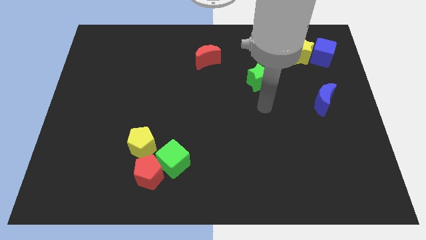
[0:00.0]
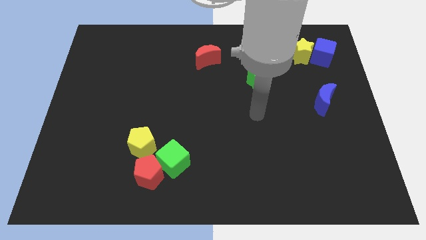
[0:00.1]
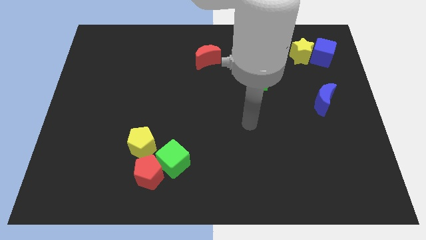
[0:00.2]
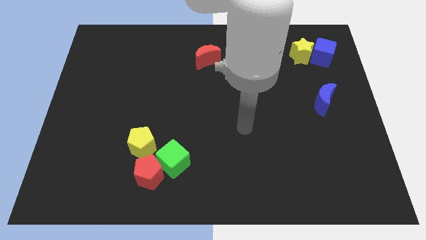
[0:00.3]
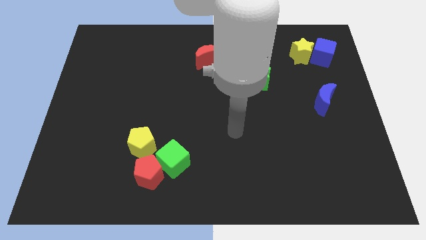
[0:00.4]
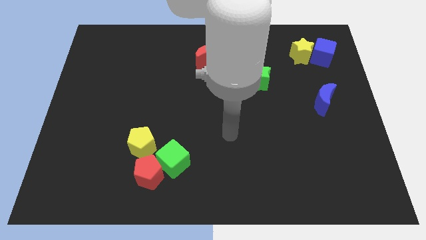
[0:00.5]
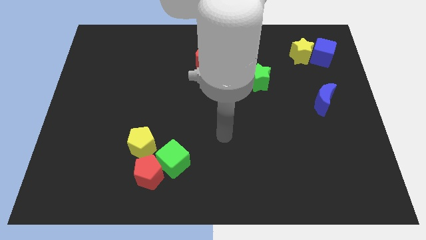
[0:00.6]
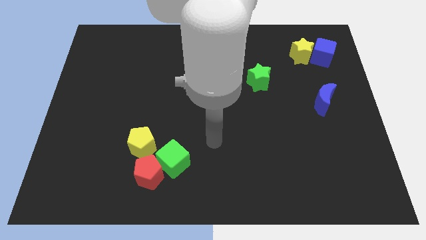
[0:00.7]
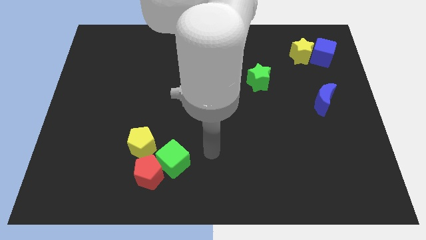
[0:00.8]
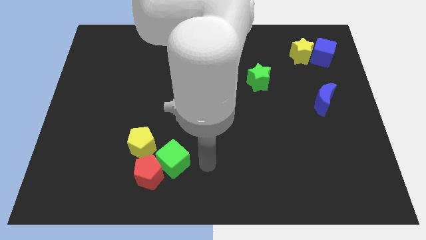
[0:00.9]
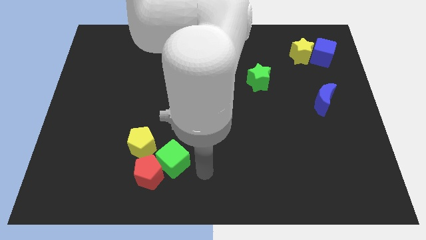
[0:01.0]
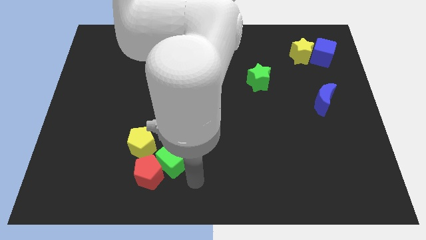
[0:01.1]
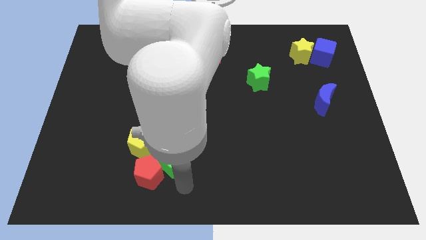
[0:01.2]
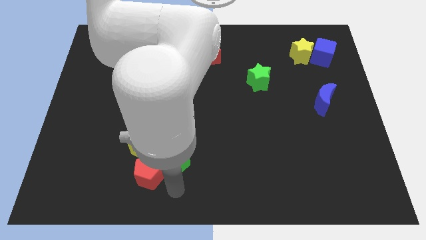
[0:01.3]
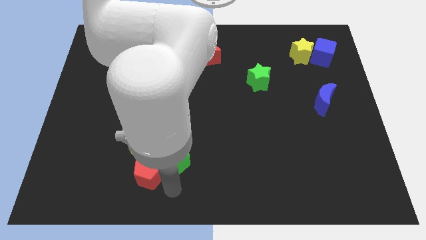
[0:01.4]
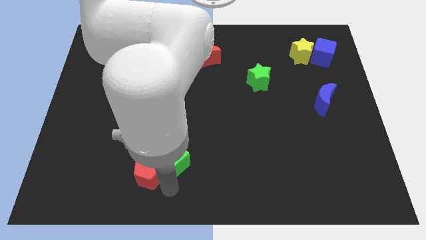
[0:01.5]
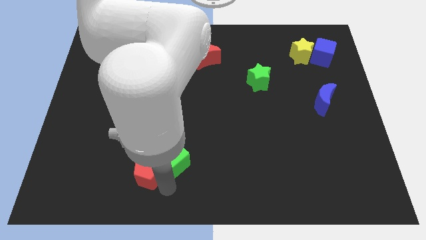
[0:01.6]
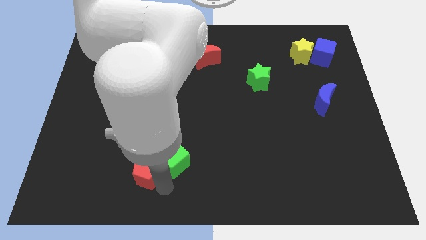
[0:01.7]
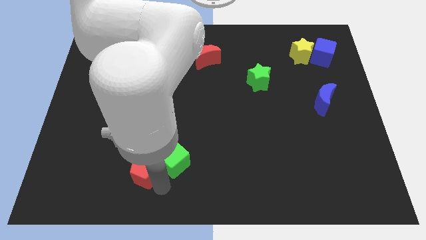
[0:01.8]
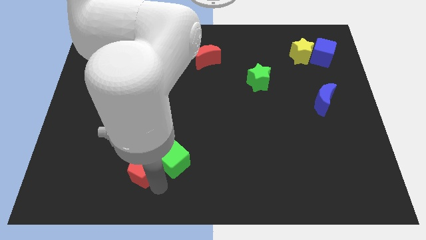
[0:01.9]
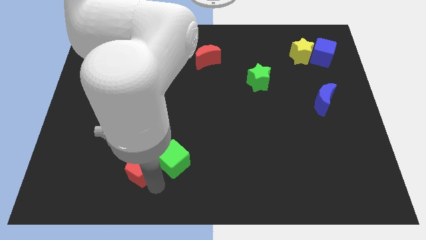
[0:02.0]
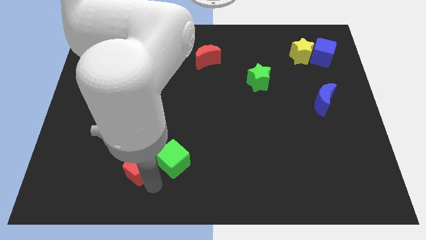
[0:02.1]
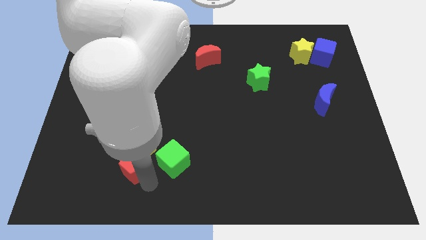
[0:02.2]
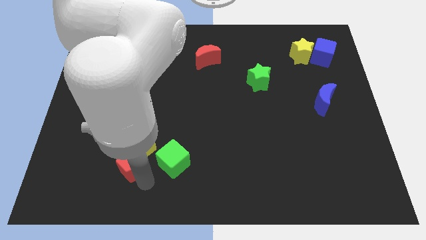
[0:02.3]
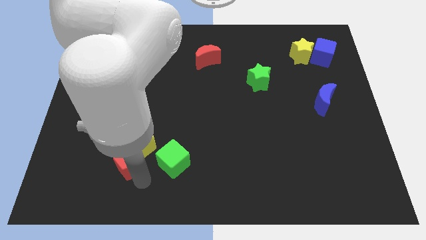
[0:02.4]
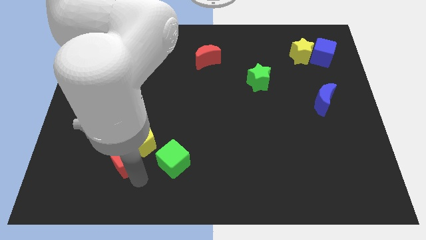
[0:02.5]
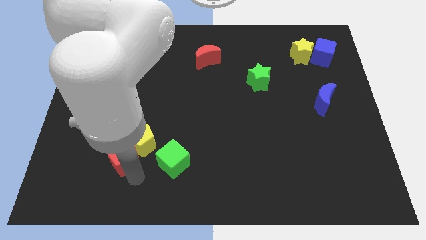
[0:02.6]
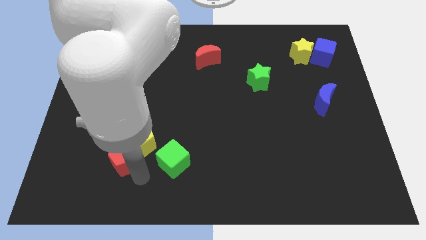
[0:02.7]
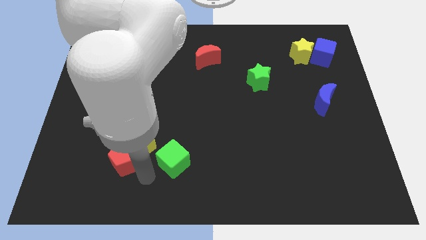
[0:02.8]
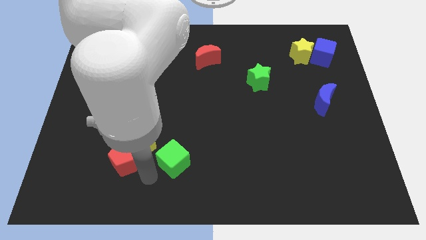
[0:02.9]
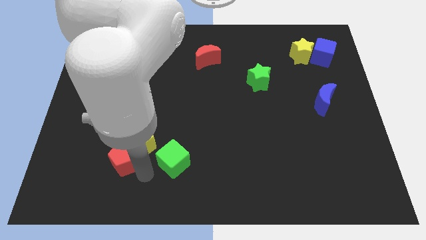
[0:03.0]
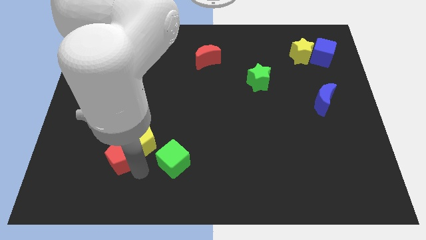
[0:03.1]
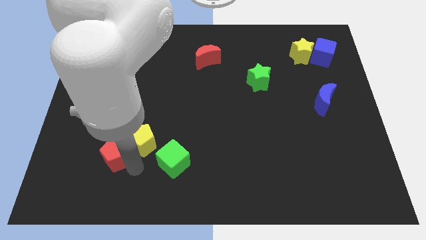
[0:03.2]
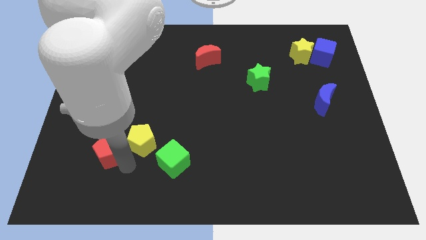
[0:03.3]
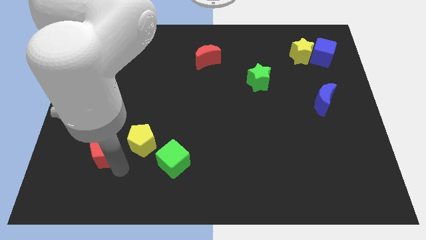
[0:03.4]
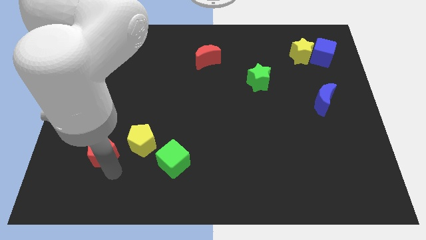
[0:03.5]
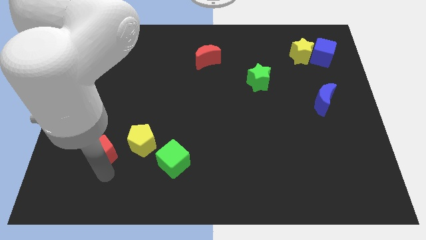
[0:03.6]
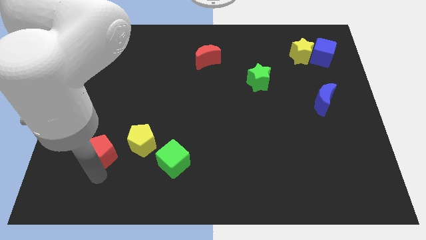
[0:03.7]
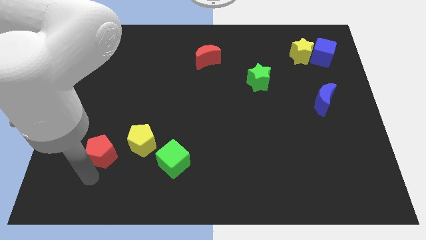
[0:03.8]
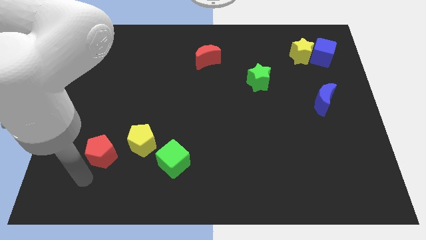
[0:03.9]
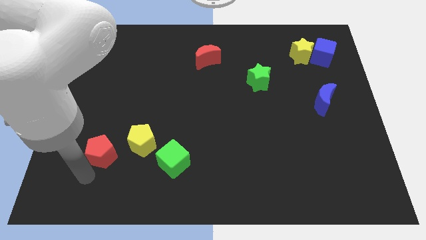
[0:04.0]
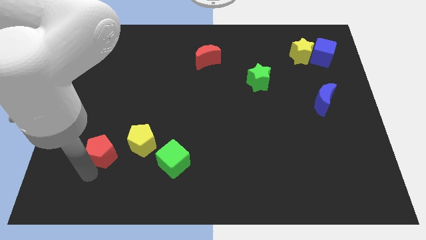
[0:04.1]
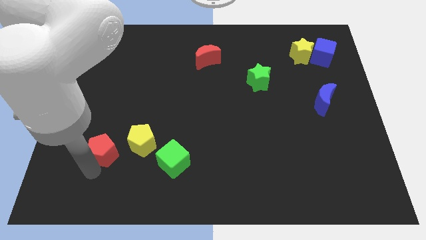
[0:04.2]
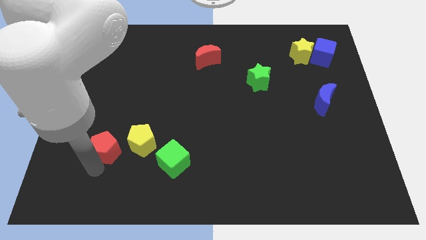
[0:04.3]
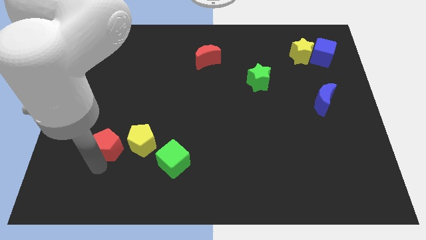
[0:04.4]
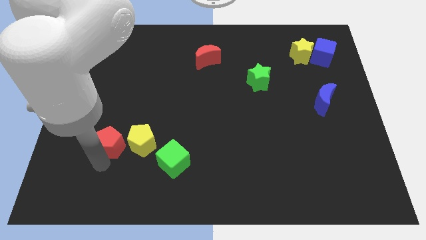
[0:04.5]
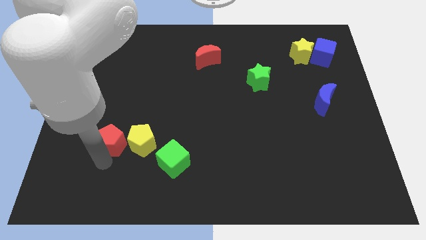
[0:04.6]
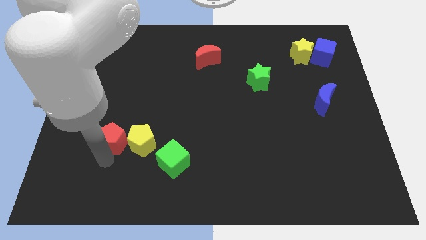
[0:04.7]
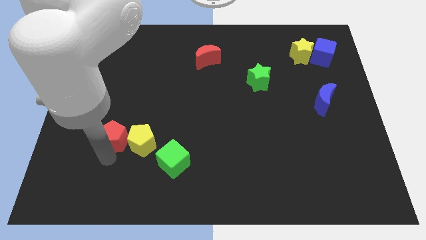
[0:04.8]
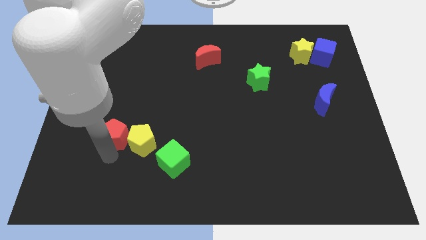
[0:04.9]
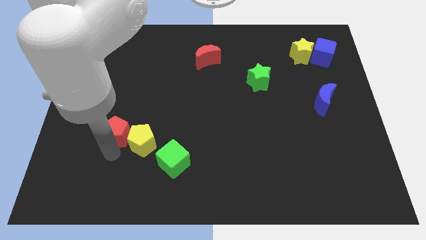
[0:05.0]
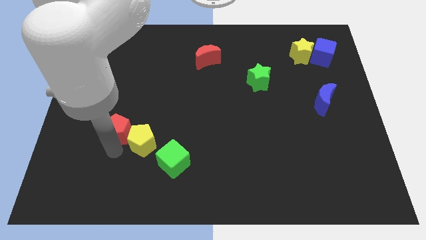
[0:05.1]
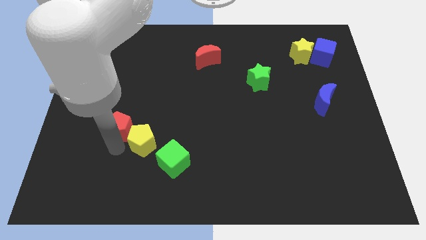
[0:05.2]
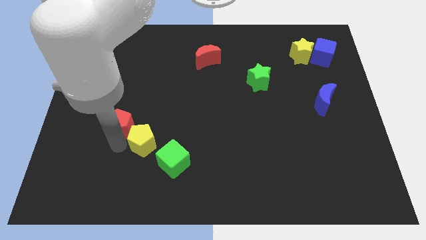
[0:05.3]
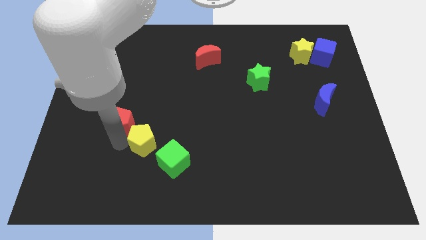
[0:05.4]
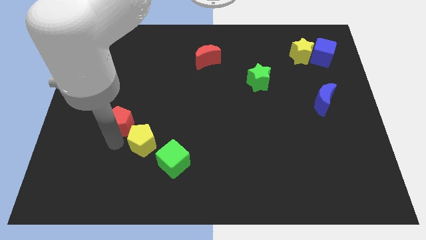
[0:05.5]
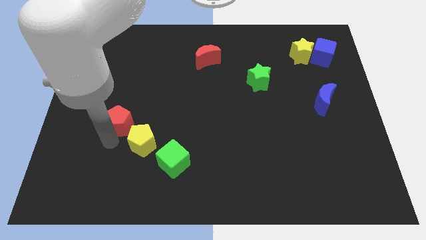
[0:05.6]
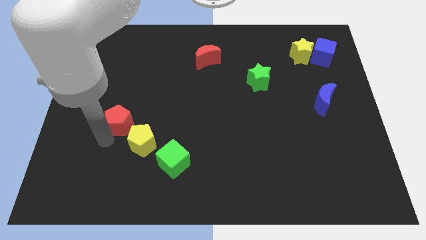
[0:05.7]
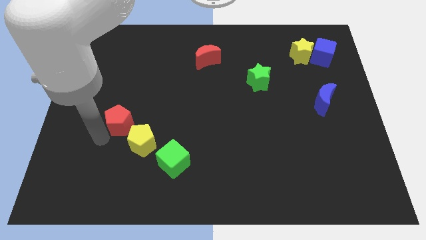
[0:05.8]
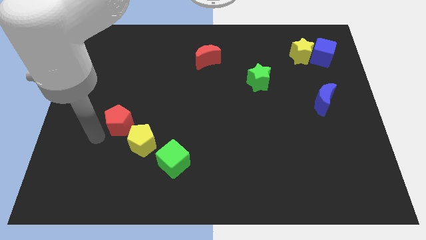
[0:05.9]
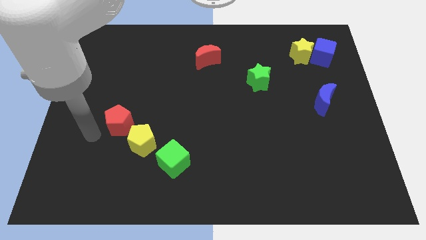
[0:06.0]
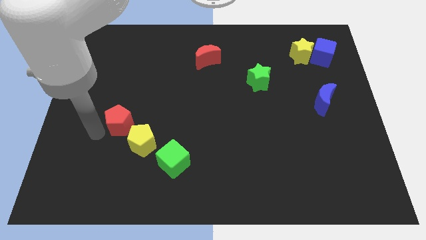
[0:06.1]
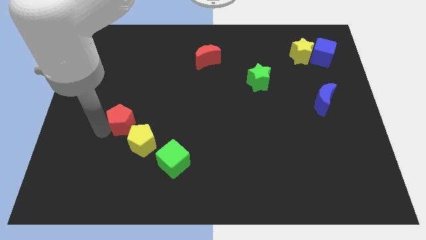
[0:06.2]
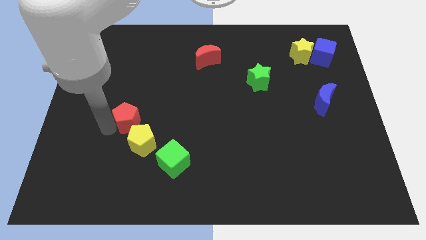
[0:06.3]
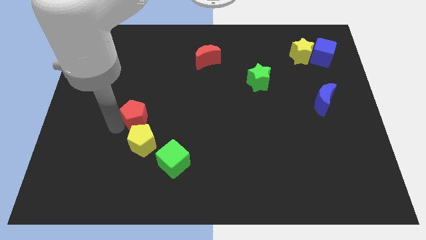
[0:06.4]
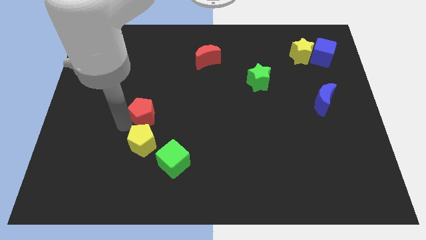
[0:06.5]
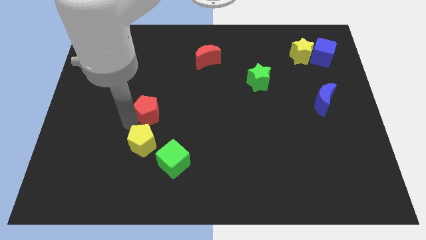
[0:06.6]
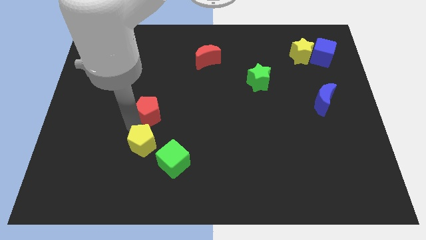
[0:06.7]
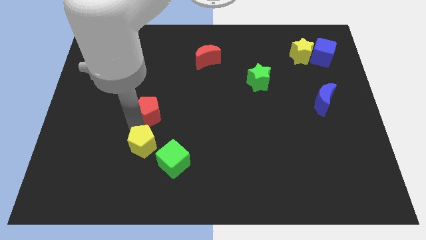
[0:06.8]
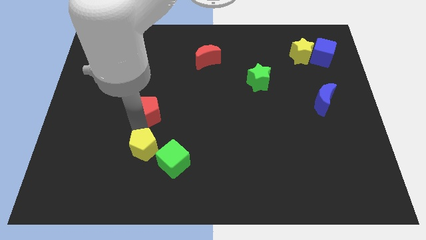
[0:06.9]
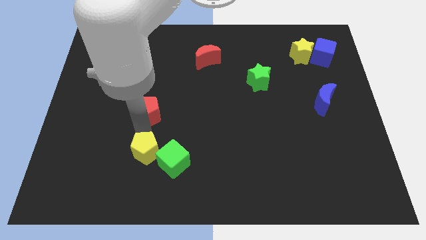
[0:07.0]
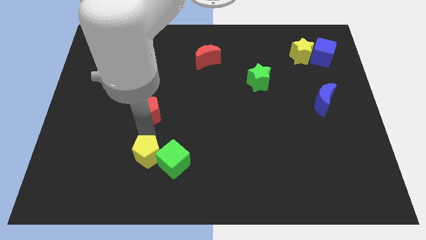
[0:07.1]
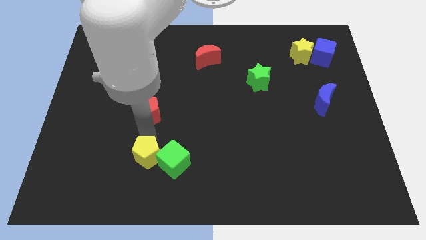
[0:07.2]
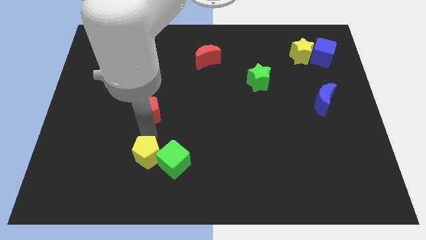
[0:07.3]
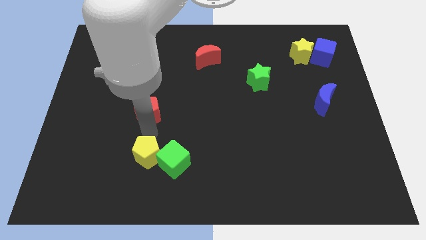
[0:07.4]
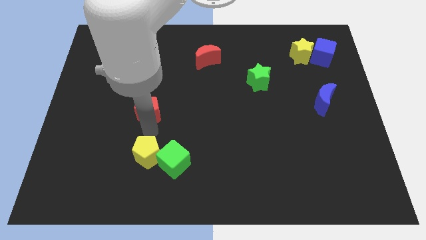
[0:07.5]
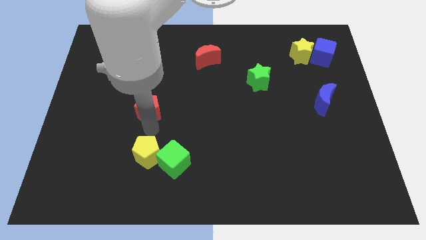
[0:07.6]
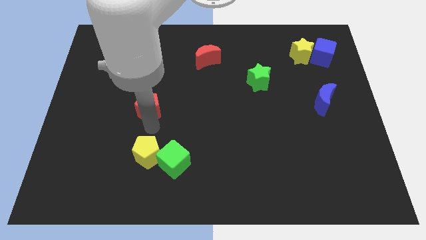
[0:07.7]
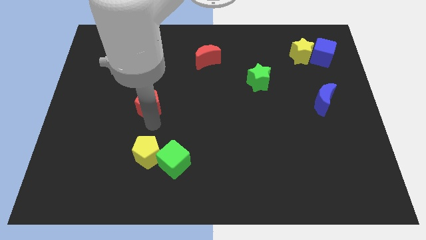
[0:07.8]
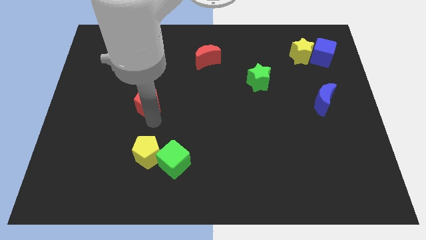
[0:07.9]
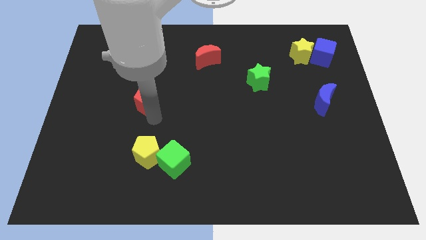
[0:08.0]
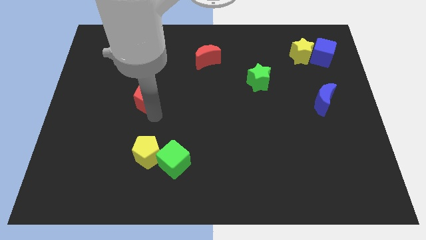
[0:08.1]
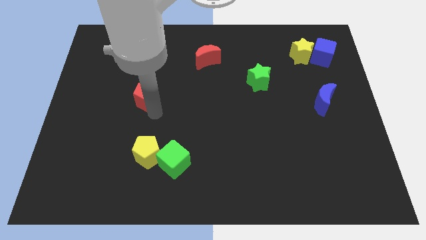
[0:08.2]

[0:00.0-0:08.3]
slide the red pentagon upwards
